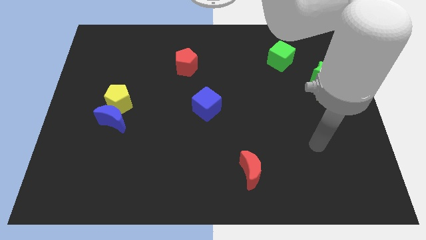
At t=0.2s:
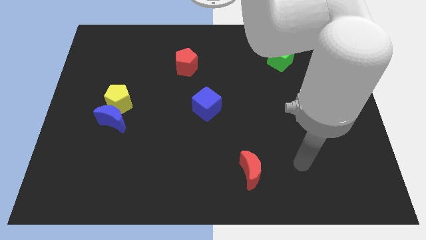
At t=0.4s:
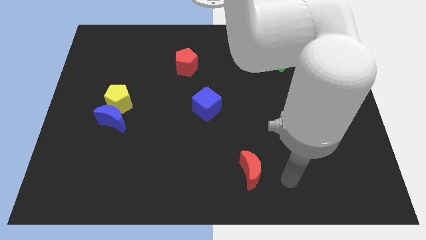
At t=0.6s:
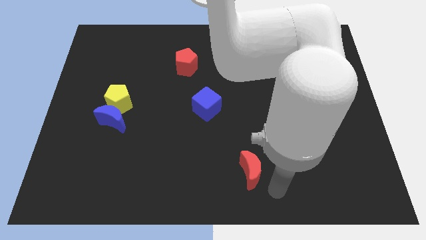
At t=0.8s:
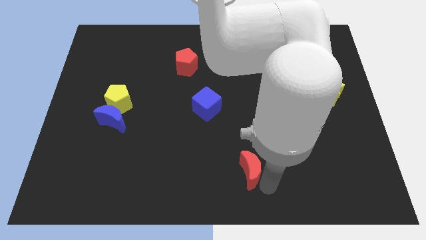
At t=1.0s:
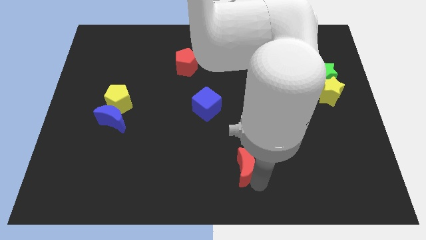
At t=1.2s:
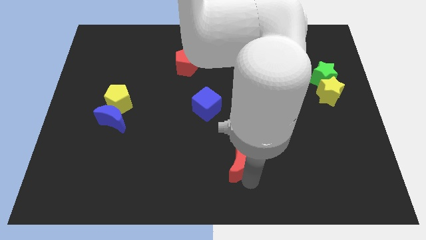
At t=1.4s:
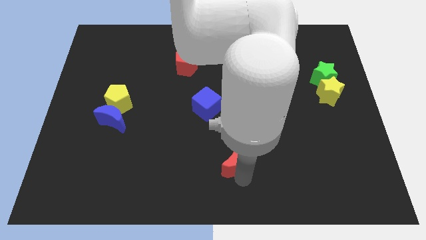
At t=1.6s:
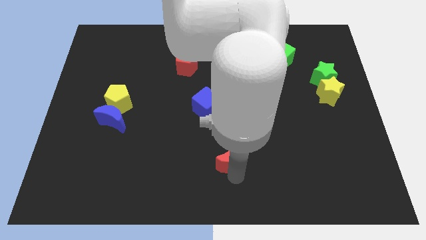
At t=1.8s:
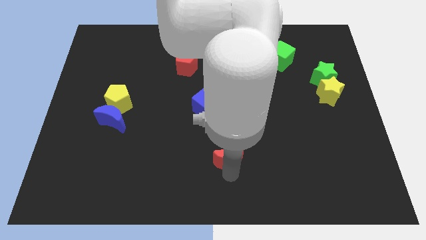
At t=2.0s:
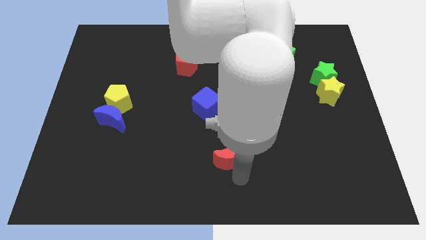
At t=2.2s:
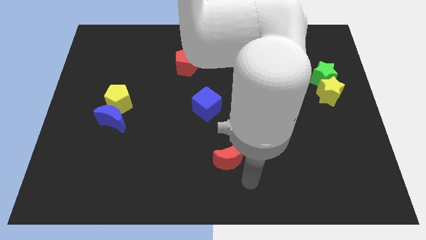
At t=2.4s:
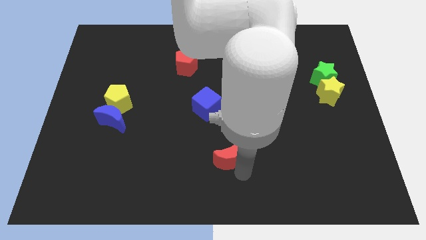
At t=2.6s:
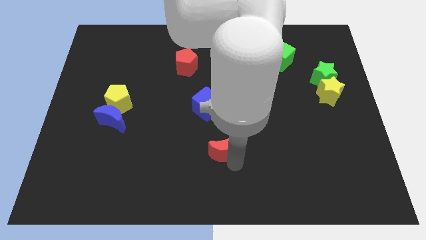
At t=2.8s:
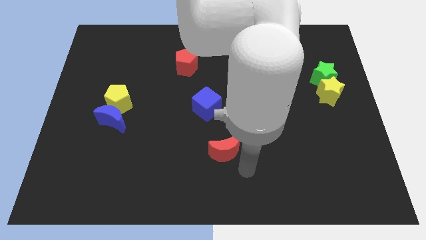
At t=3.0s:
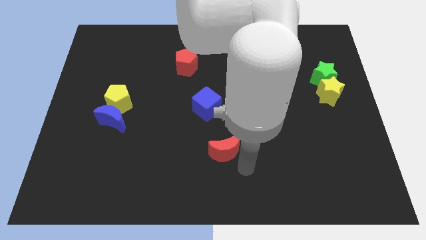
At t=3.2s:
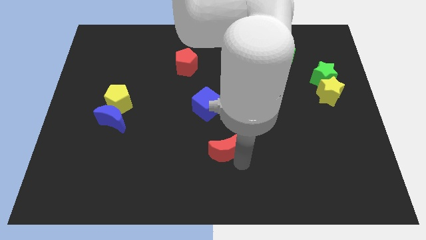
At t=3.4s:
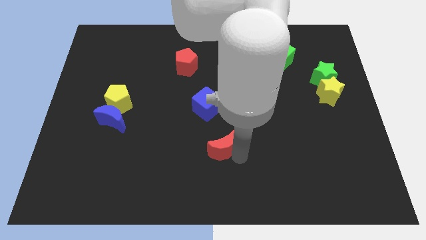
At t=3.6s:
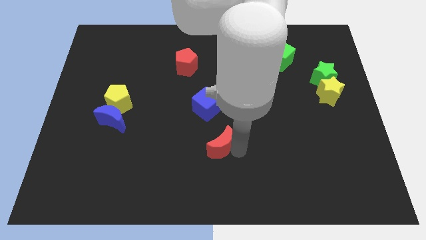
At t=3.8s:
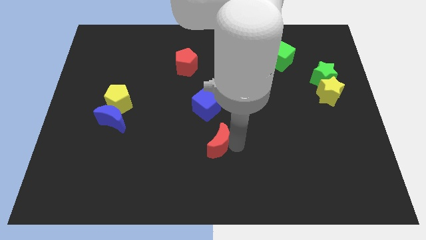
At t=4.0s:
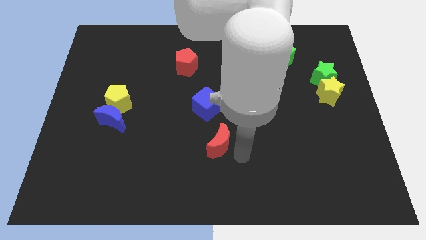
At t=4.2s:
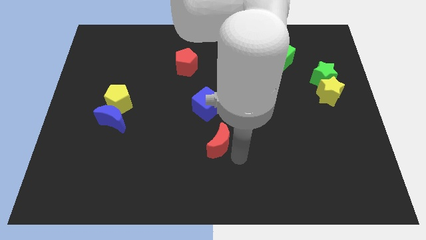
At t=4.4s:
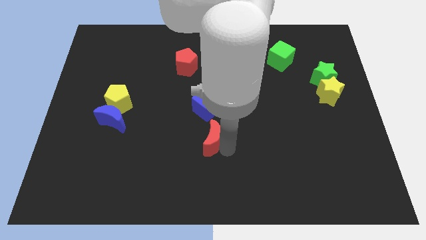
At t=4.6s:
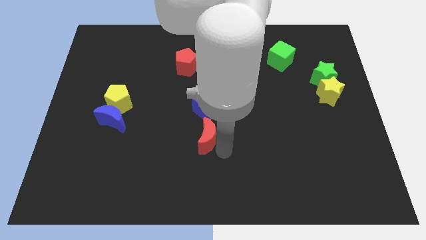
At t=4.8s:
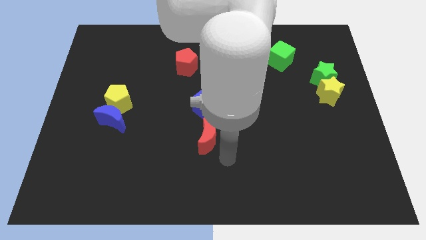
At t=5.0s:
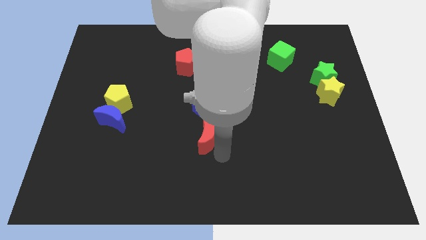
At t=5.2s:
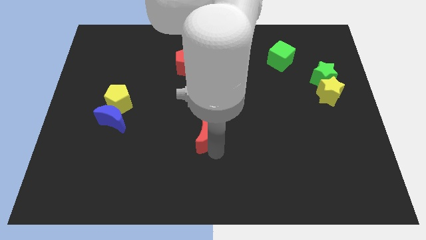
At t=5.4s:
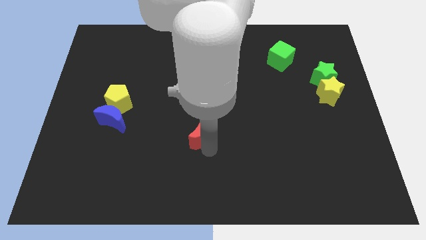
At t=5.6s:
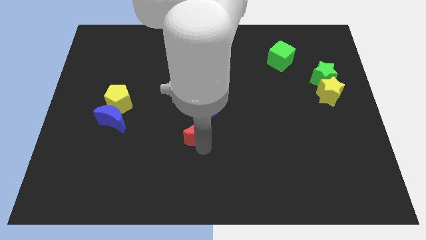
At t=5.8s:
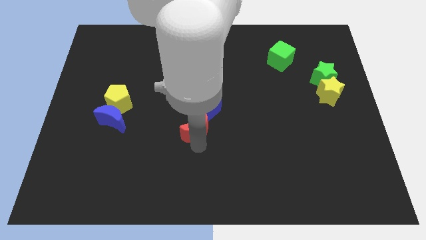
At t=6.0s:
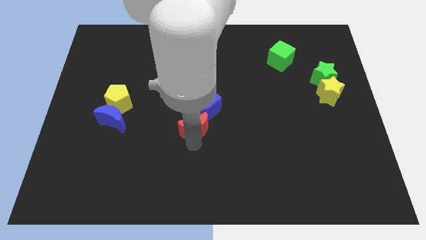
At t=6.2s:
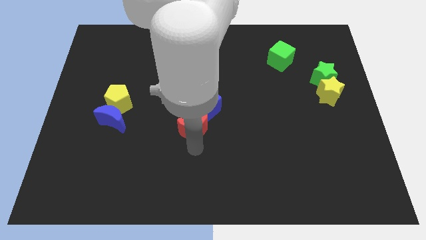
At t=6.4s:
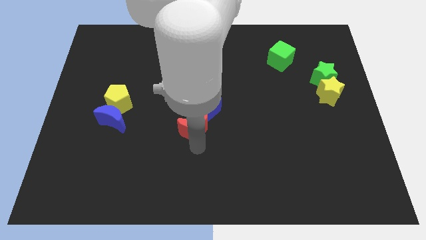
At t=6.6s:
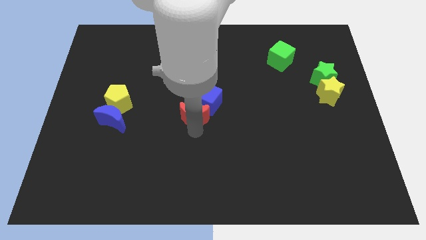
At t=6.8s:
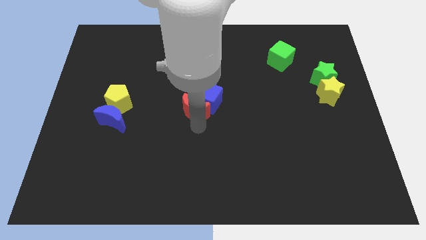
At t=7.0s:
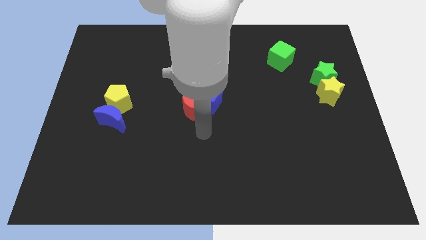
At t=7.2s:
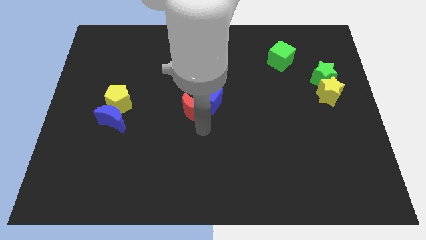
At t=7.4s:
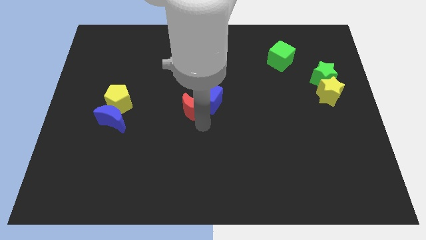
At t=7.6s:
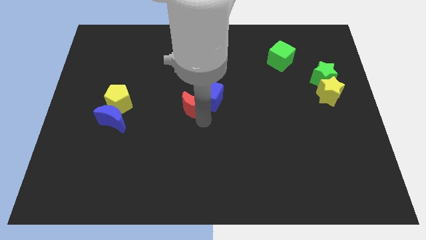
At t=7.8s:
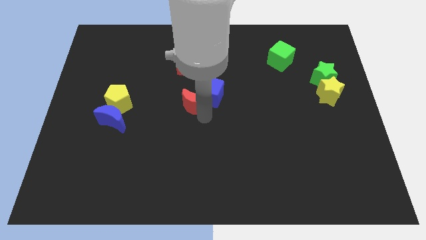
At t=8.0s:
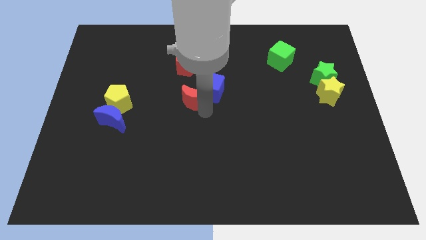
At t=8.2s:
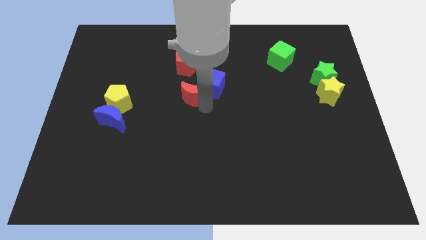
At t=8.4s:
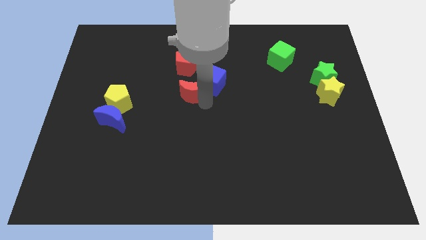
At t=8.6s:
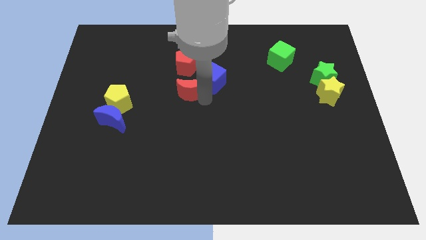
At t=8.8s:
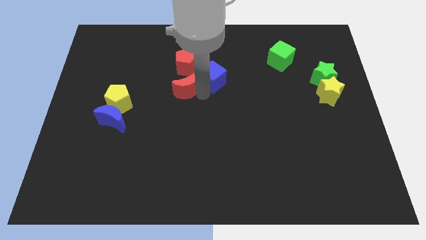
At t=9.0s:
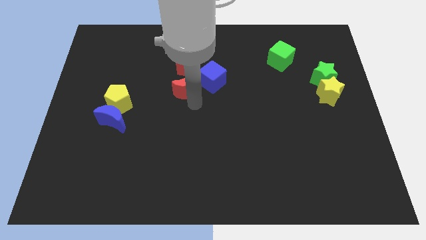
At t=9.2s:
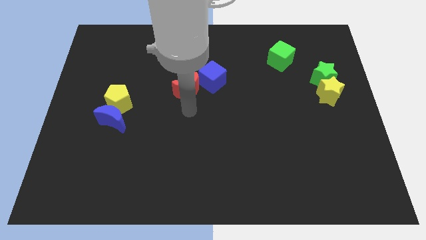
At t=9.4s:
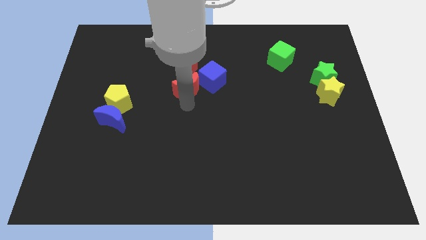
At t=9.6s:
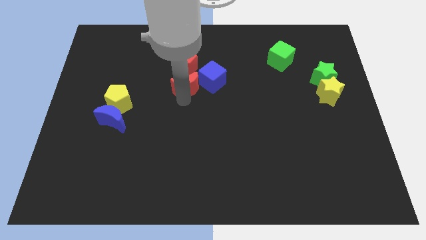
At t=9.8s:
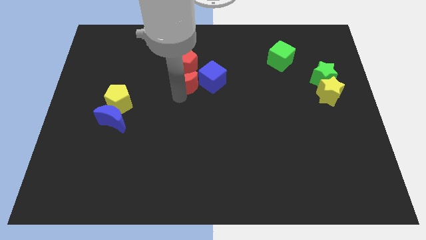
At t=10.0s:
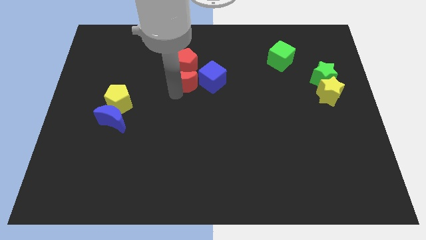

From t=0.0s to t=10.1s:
push the red moon towards the red pentagon

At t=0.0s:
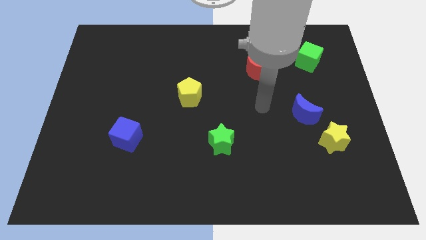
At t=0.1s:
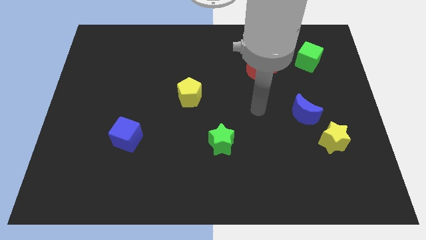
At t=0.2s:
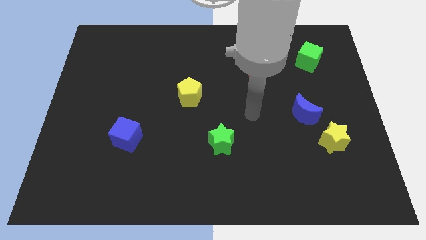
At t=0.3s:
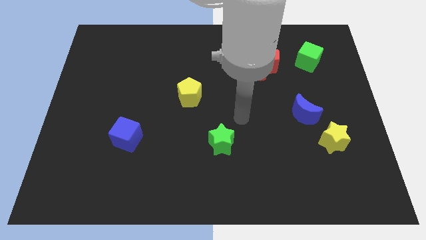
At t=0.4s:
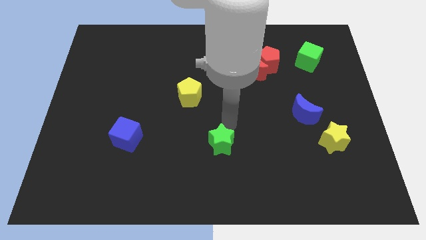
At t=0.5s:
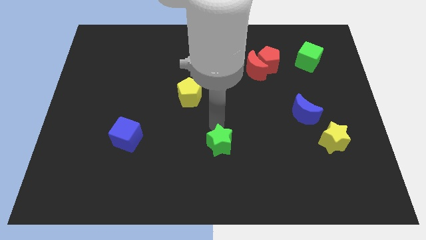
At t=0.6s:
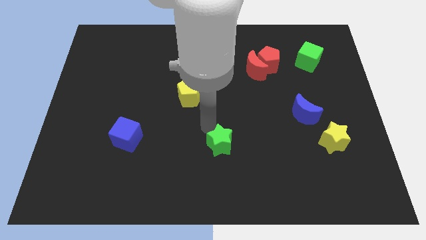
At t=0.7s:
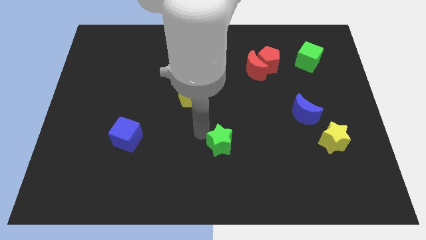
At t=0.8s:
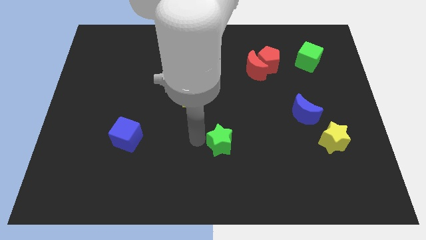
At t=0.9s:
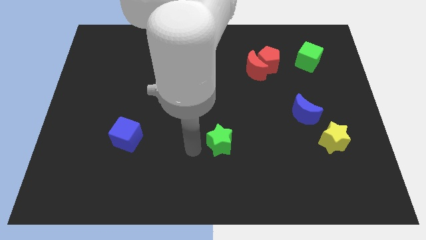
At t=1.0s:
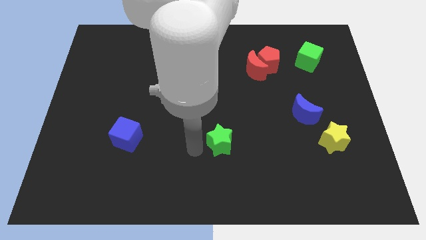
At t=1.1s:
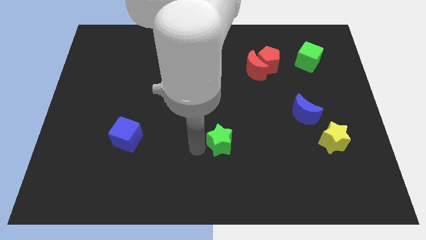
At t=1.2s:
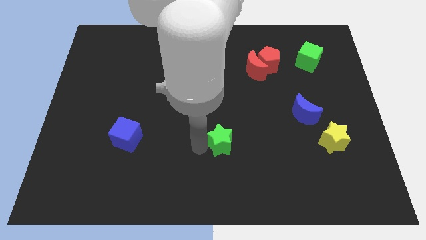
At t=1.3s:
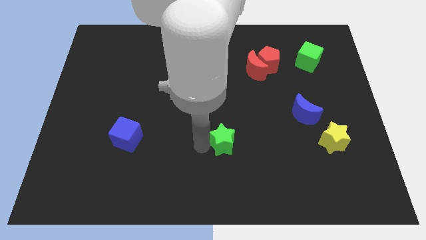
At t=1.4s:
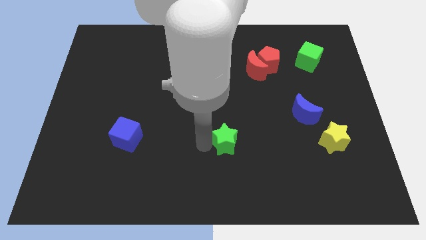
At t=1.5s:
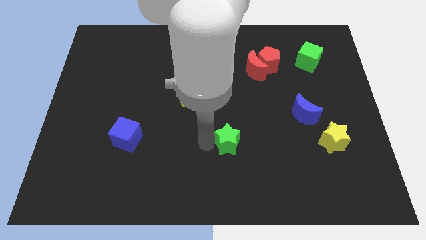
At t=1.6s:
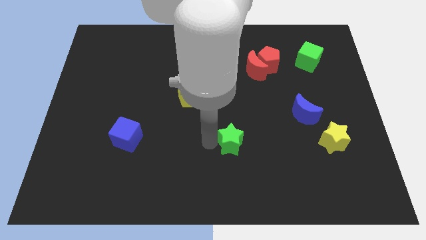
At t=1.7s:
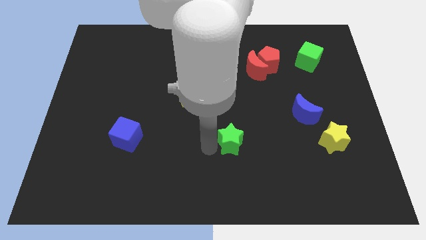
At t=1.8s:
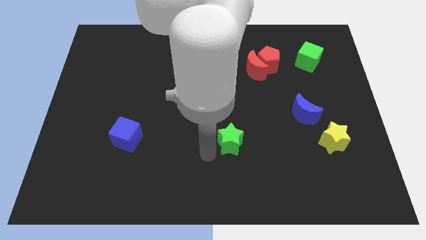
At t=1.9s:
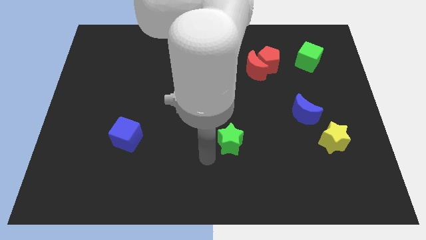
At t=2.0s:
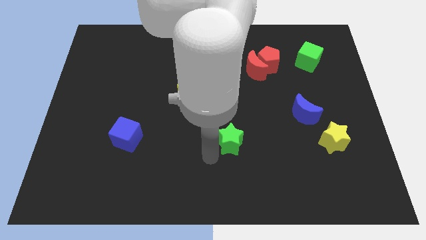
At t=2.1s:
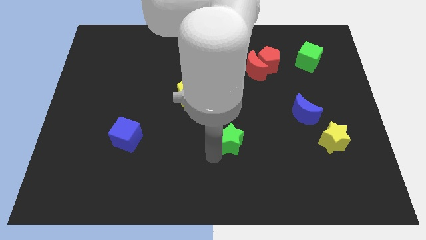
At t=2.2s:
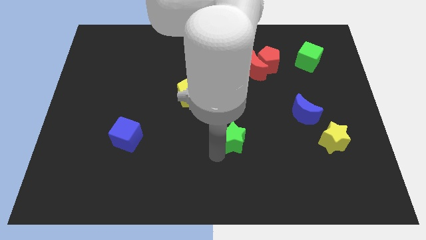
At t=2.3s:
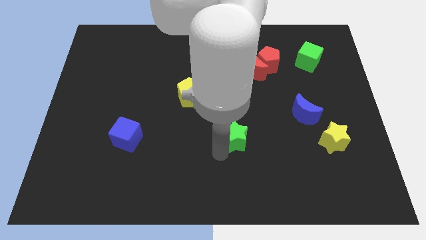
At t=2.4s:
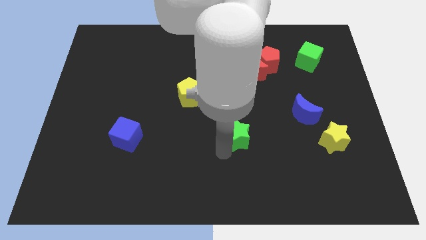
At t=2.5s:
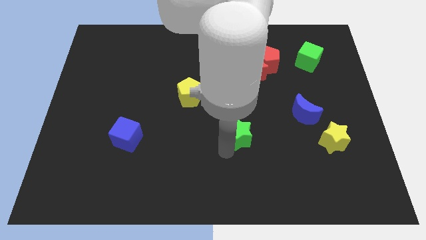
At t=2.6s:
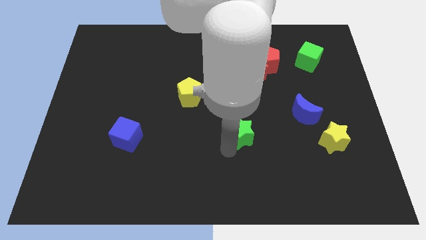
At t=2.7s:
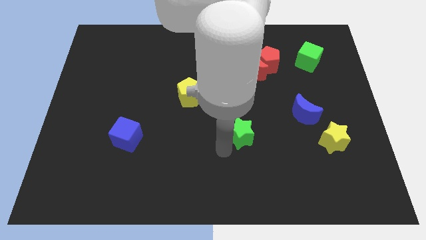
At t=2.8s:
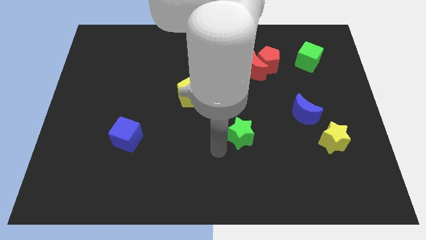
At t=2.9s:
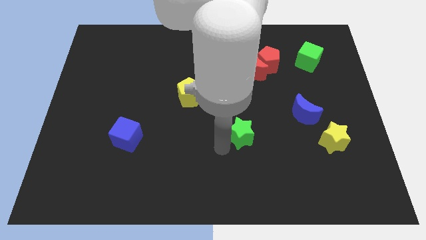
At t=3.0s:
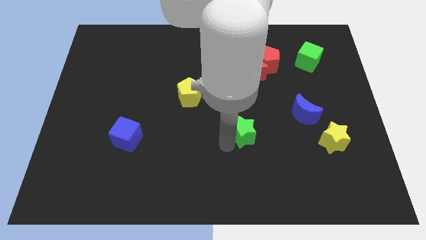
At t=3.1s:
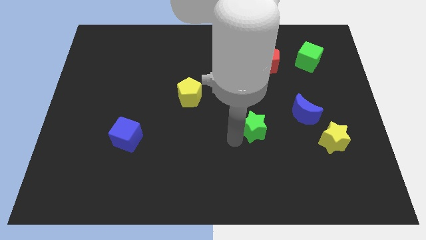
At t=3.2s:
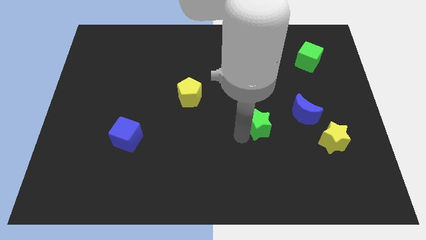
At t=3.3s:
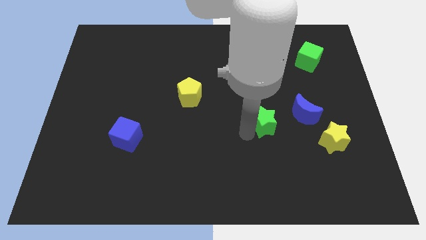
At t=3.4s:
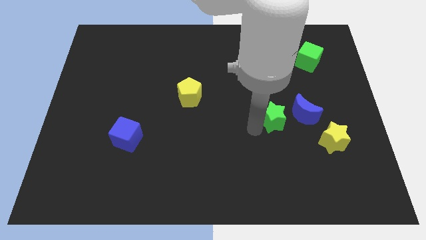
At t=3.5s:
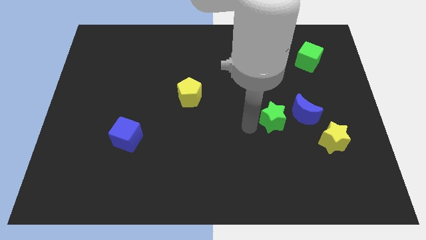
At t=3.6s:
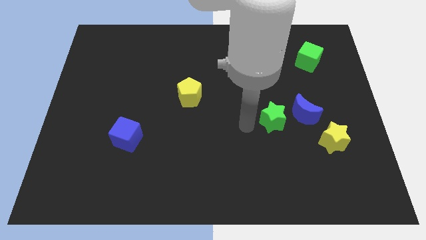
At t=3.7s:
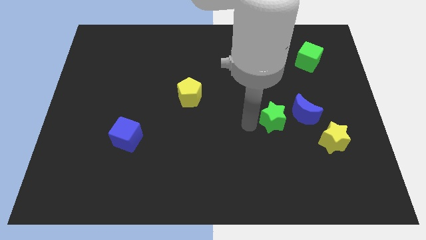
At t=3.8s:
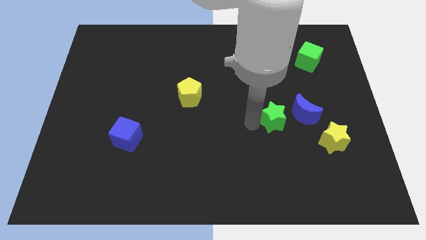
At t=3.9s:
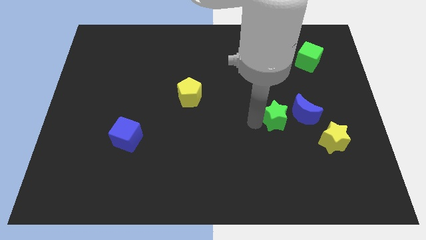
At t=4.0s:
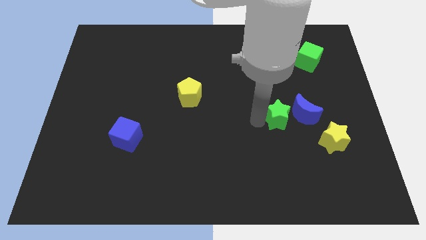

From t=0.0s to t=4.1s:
put the green star towards the blue moon
